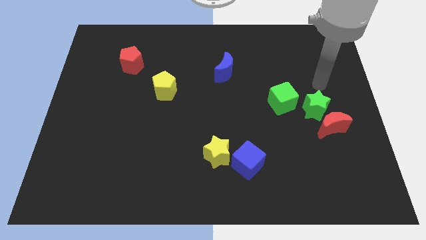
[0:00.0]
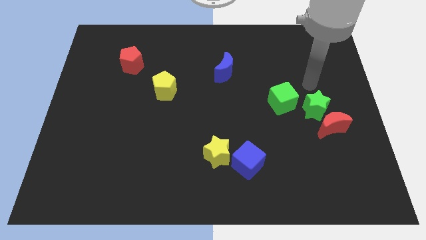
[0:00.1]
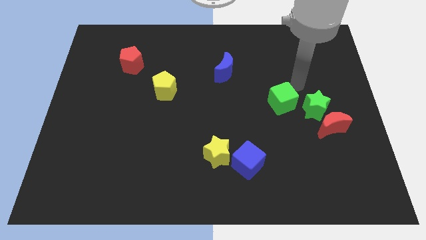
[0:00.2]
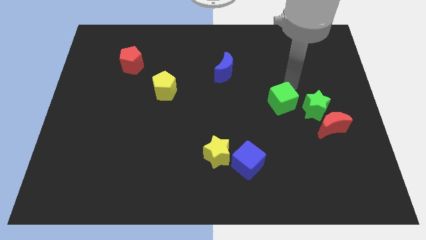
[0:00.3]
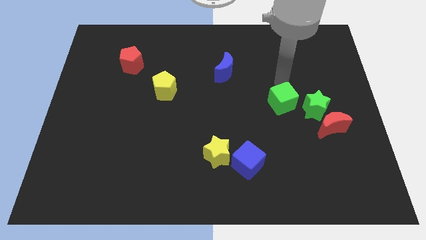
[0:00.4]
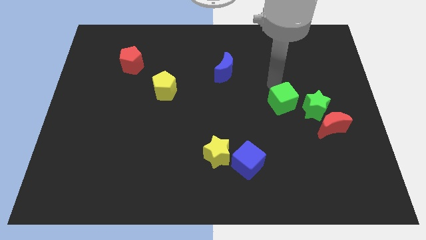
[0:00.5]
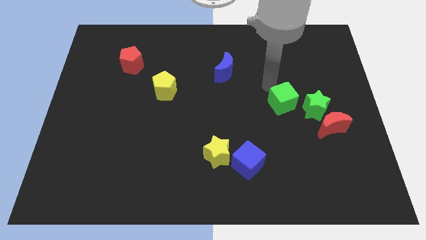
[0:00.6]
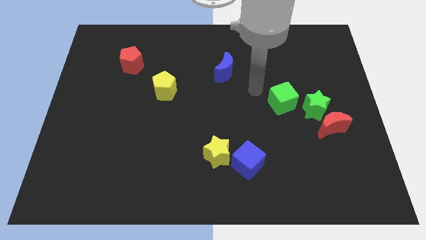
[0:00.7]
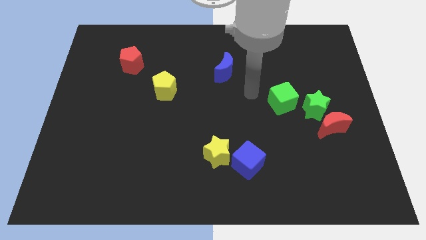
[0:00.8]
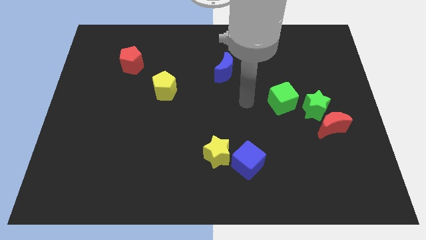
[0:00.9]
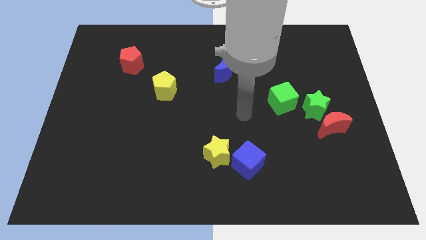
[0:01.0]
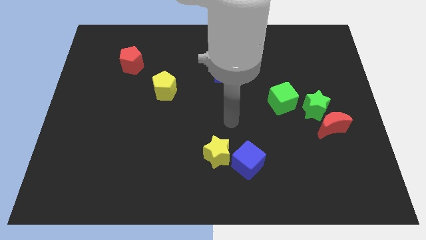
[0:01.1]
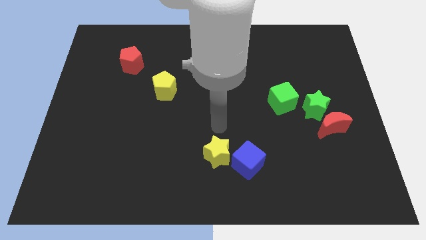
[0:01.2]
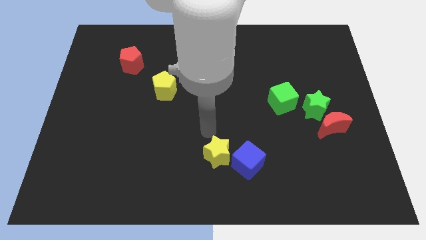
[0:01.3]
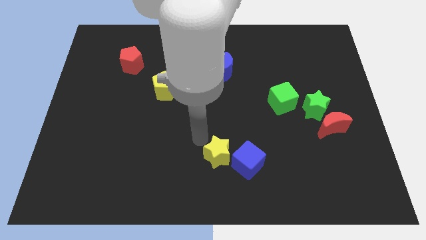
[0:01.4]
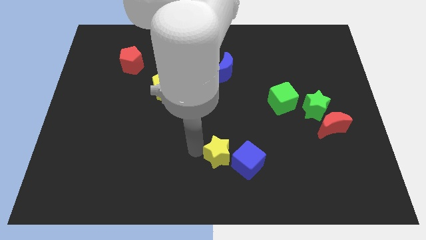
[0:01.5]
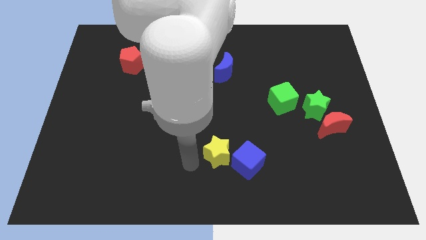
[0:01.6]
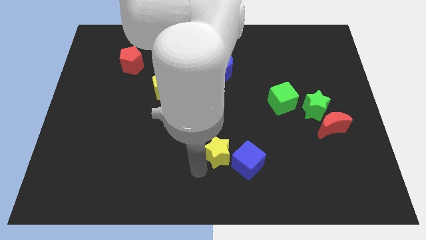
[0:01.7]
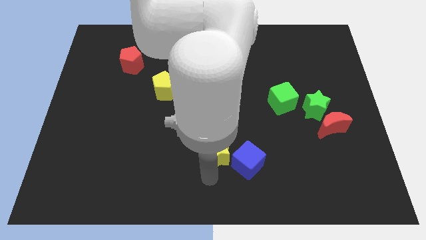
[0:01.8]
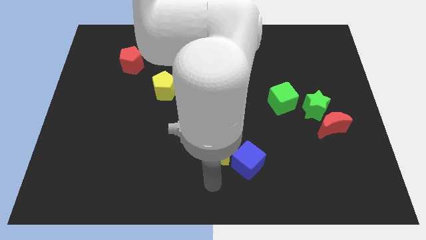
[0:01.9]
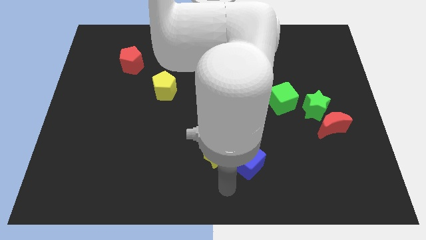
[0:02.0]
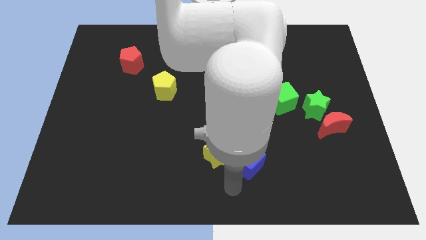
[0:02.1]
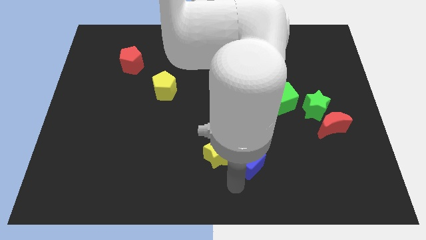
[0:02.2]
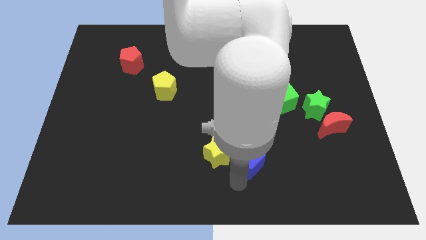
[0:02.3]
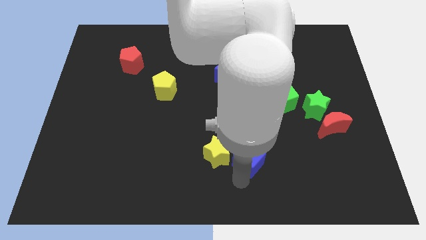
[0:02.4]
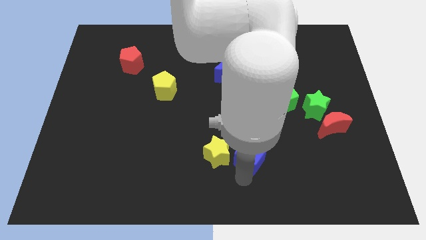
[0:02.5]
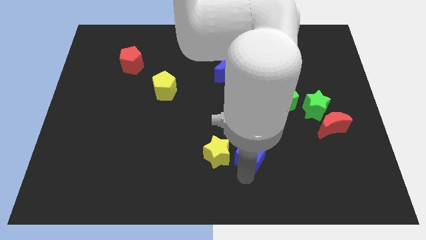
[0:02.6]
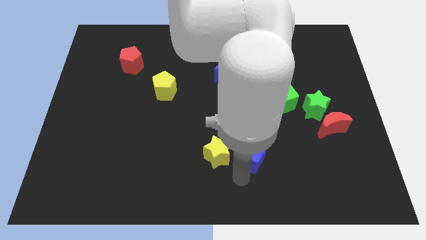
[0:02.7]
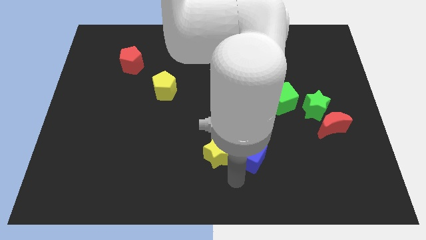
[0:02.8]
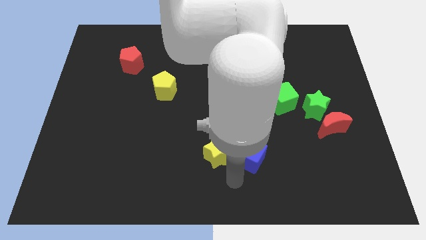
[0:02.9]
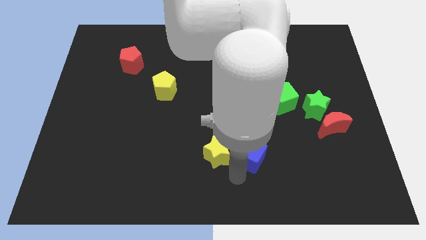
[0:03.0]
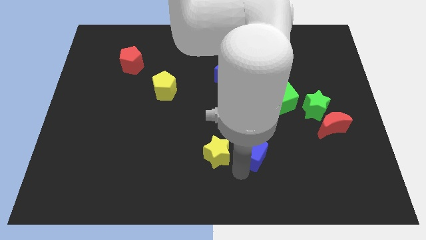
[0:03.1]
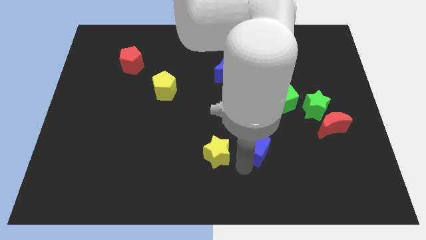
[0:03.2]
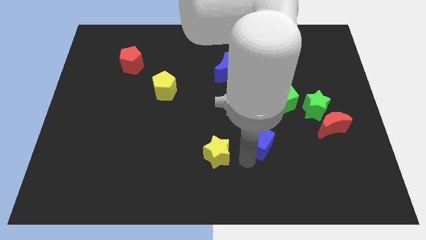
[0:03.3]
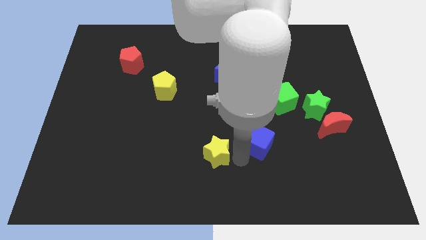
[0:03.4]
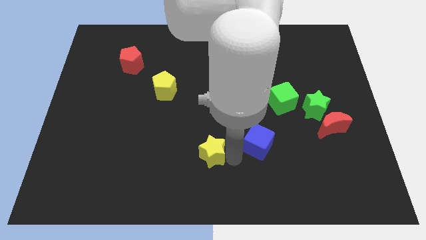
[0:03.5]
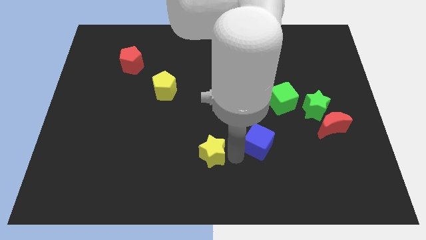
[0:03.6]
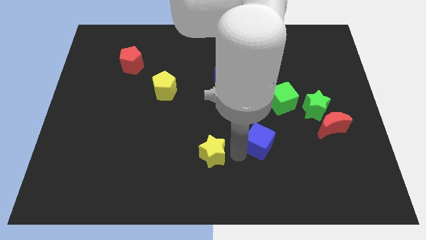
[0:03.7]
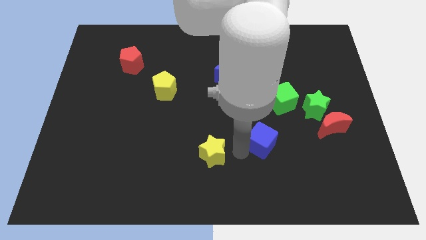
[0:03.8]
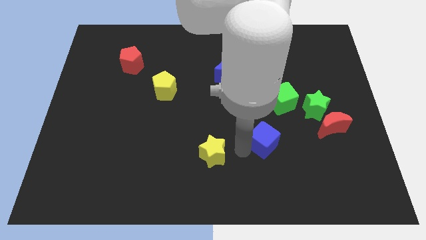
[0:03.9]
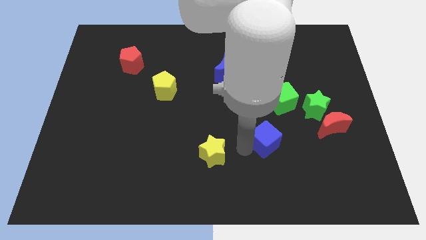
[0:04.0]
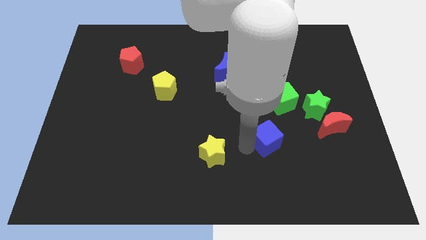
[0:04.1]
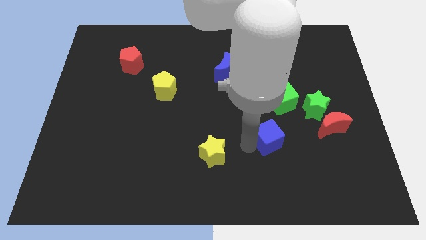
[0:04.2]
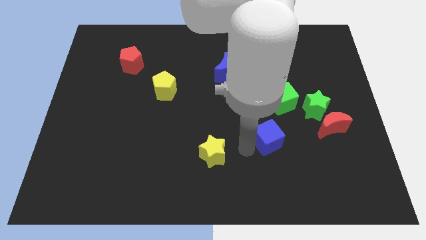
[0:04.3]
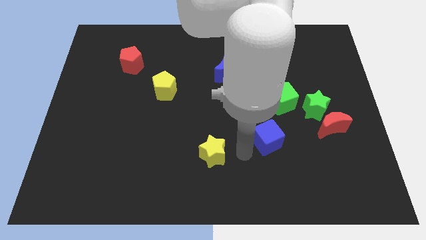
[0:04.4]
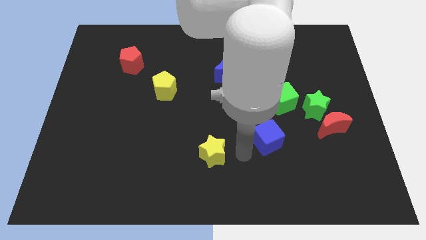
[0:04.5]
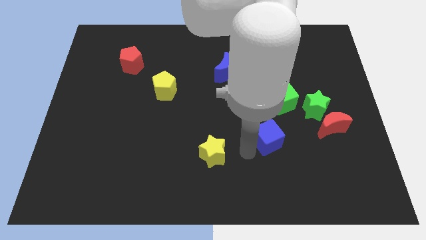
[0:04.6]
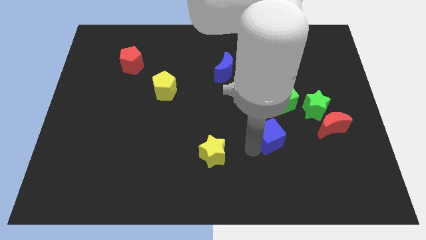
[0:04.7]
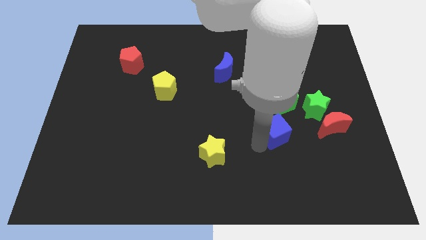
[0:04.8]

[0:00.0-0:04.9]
push the blue cube to the bottom left of the green star

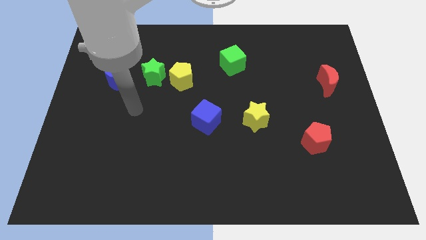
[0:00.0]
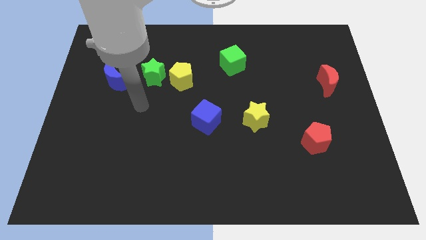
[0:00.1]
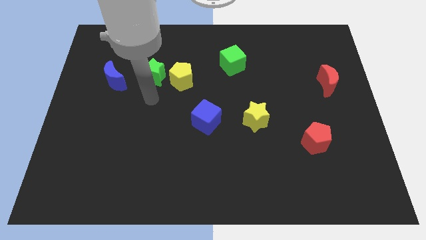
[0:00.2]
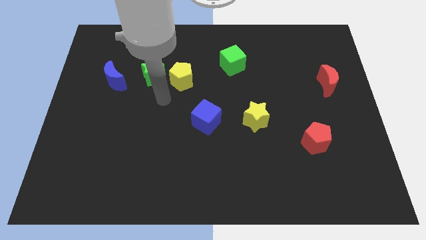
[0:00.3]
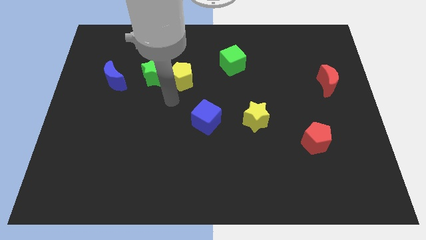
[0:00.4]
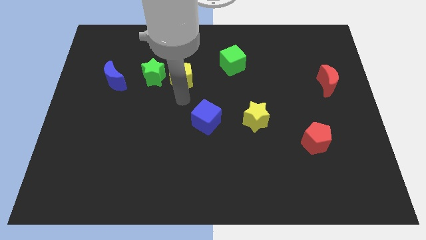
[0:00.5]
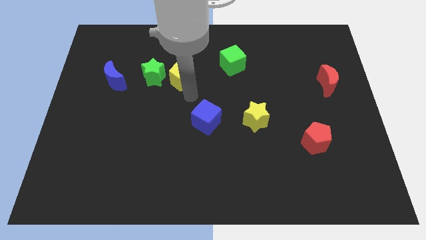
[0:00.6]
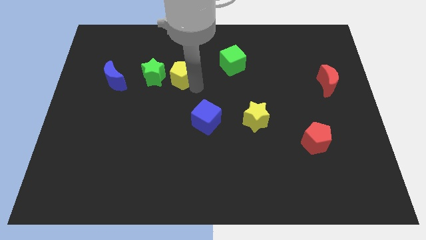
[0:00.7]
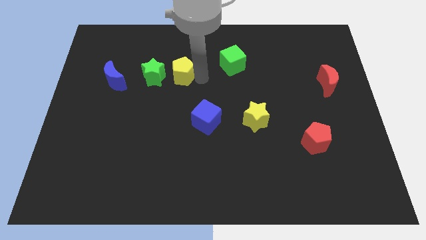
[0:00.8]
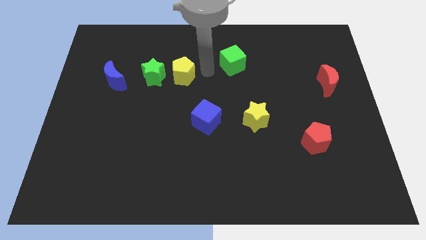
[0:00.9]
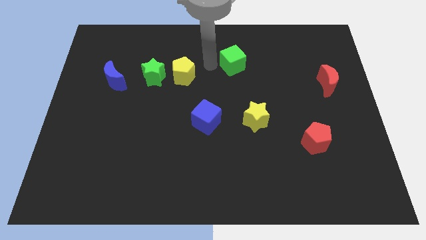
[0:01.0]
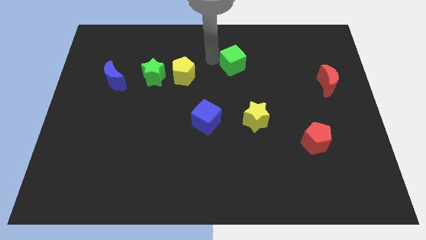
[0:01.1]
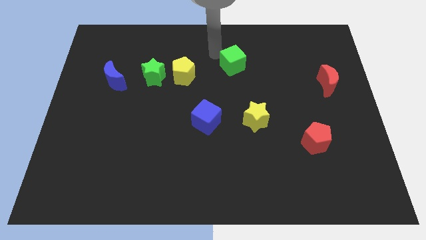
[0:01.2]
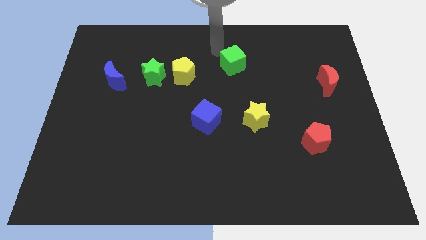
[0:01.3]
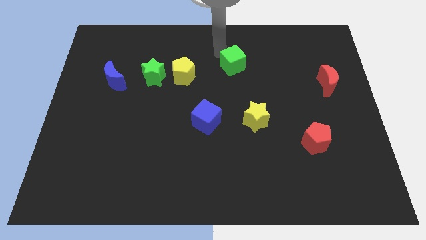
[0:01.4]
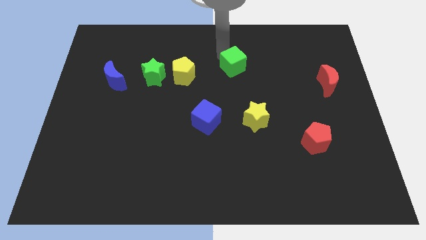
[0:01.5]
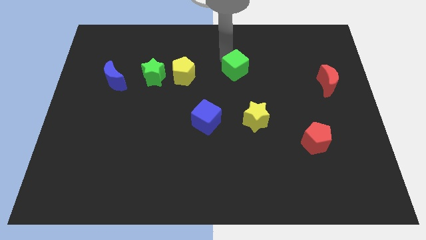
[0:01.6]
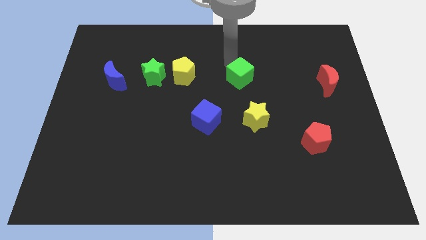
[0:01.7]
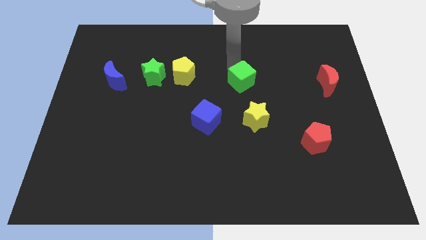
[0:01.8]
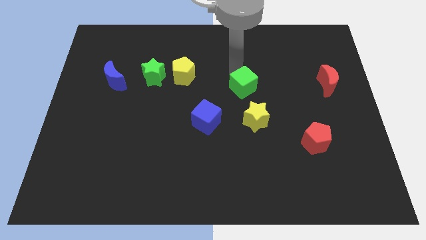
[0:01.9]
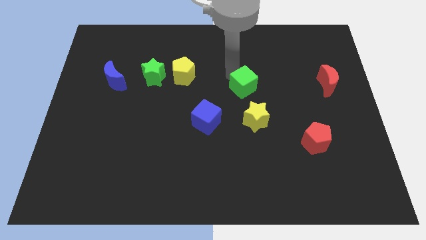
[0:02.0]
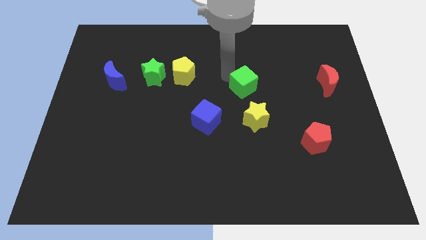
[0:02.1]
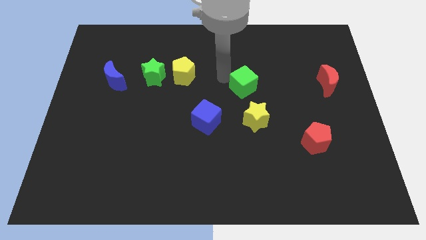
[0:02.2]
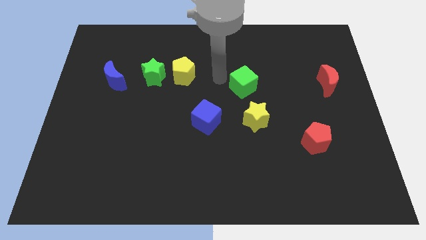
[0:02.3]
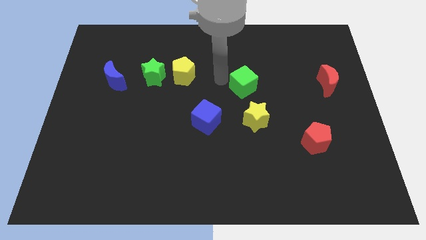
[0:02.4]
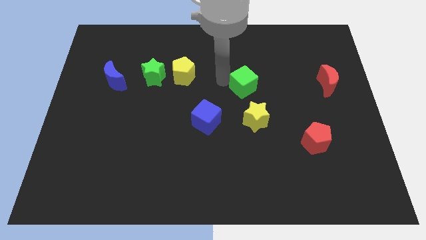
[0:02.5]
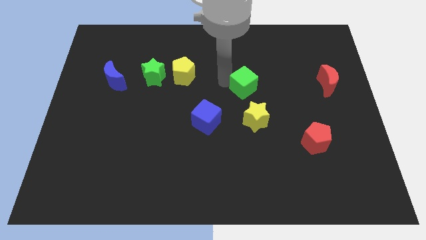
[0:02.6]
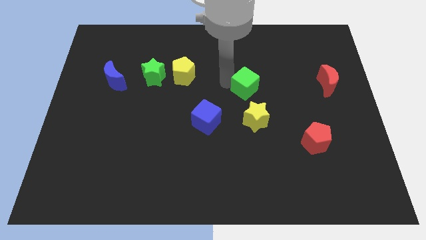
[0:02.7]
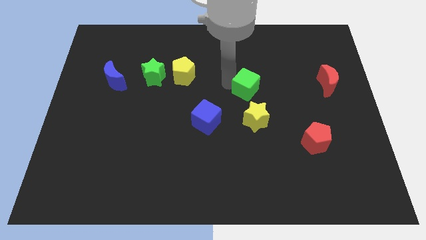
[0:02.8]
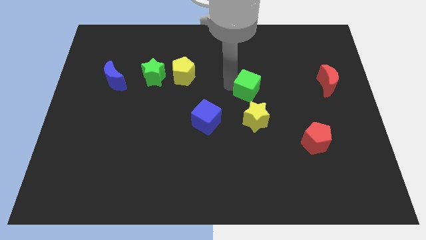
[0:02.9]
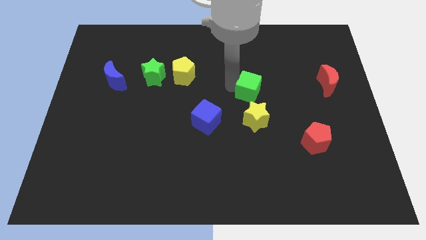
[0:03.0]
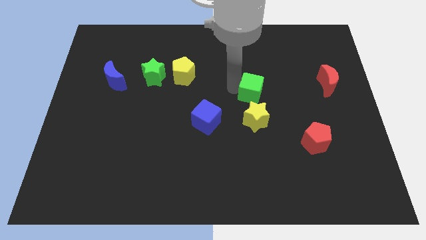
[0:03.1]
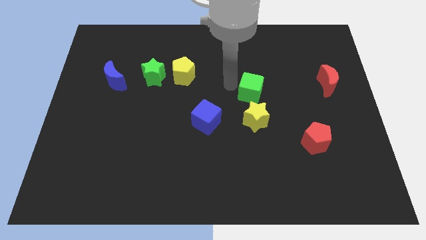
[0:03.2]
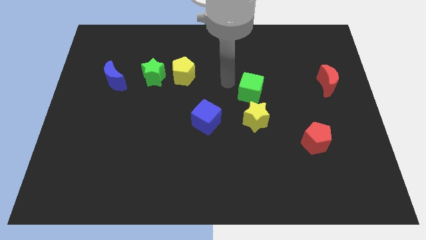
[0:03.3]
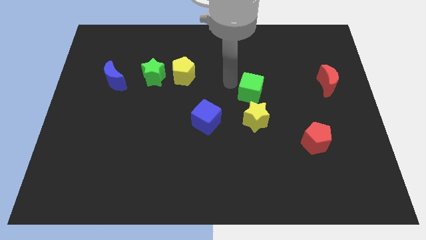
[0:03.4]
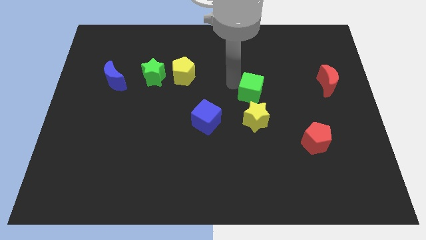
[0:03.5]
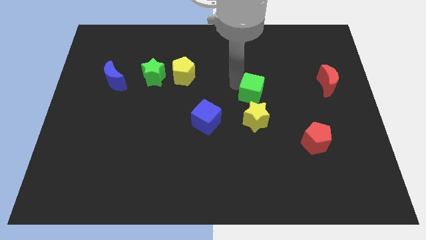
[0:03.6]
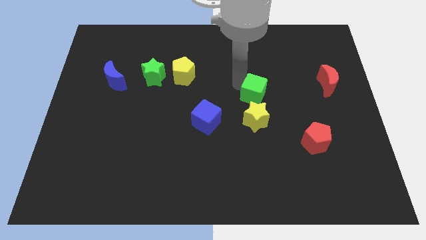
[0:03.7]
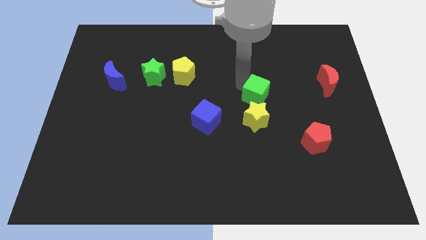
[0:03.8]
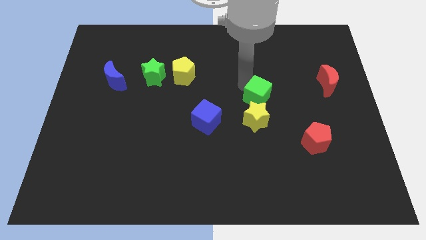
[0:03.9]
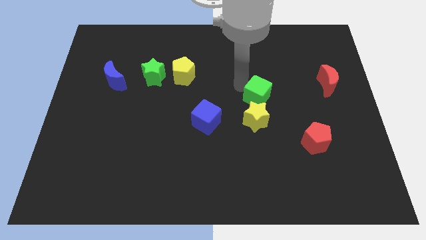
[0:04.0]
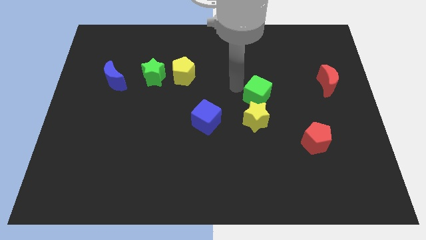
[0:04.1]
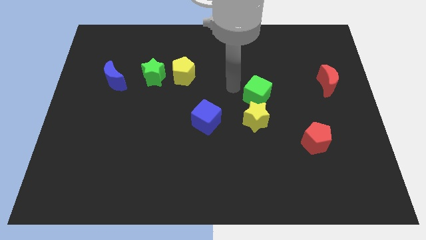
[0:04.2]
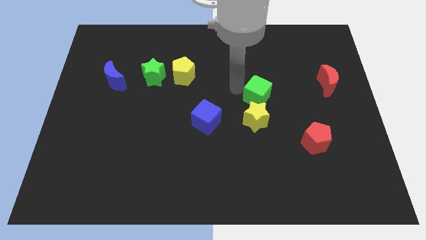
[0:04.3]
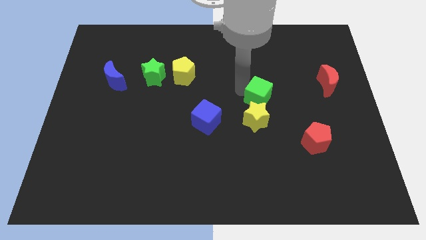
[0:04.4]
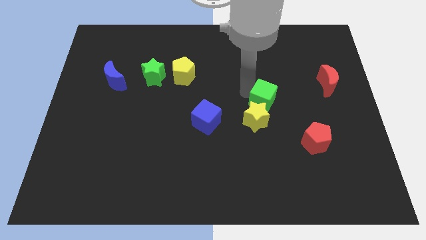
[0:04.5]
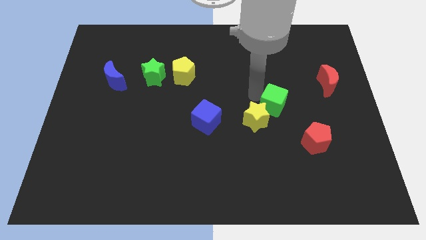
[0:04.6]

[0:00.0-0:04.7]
put the green cube to the right of the yellow star
